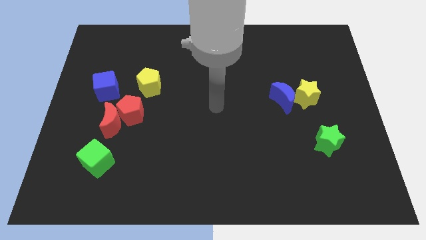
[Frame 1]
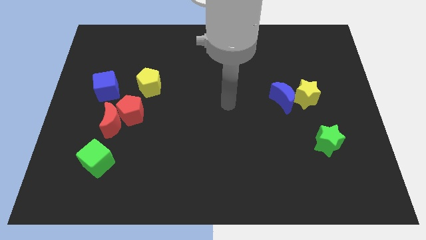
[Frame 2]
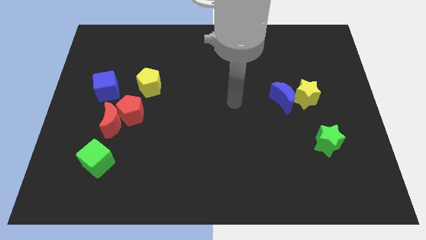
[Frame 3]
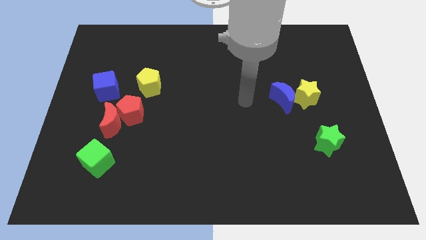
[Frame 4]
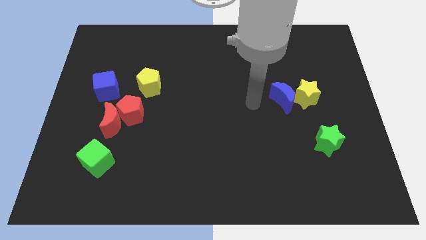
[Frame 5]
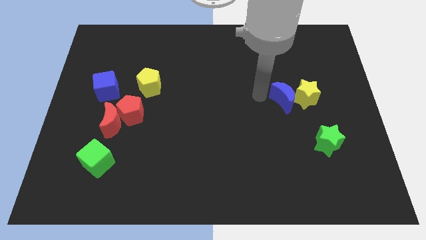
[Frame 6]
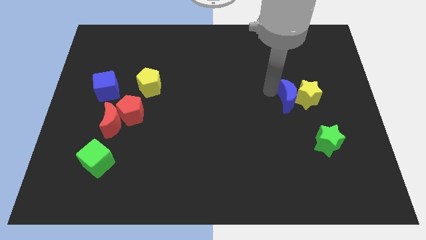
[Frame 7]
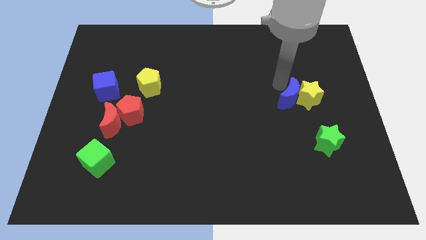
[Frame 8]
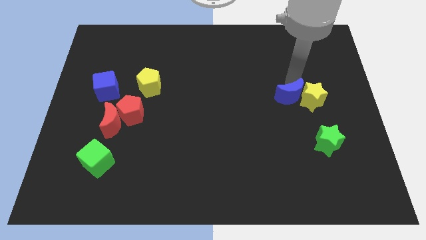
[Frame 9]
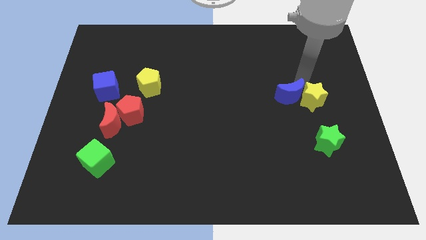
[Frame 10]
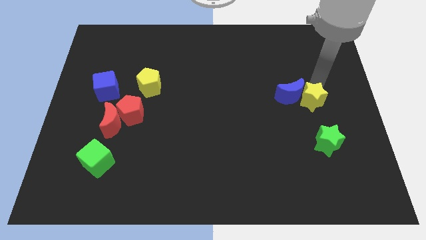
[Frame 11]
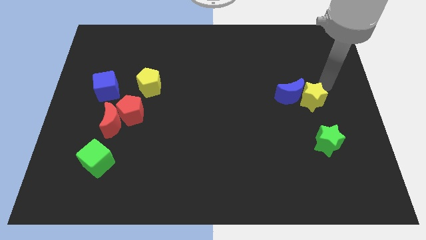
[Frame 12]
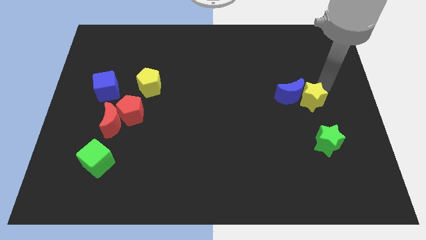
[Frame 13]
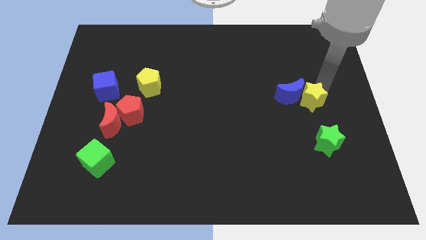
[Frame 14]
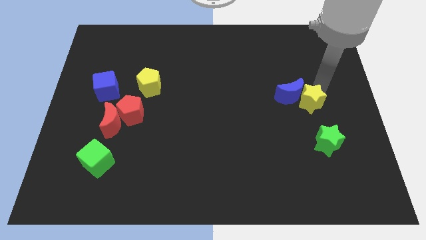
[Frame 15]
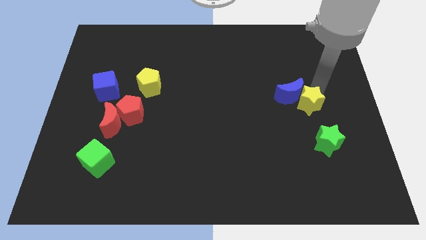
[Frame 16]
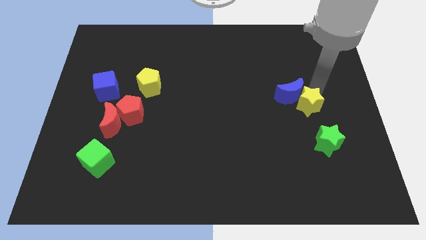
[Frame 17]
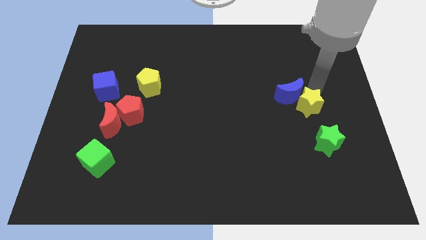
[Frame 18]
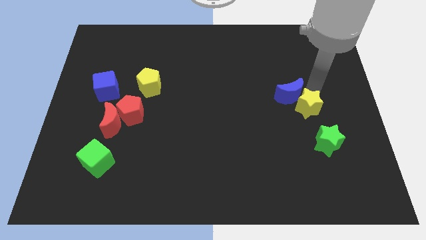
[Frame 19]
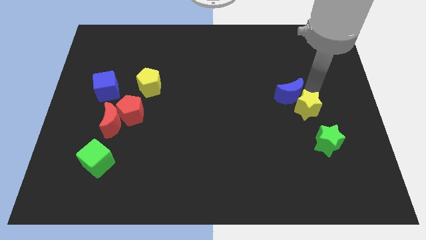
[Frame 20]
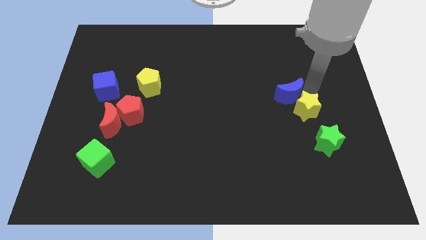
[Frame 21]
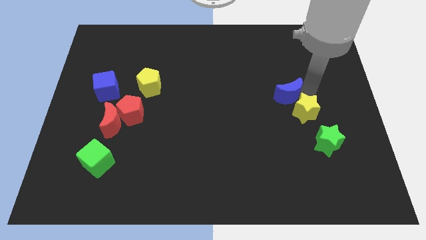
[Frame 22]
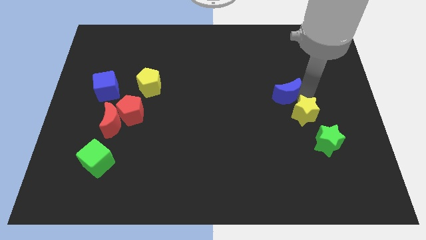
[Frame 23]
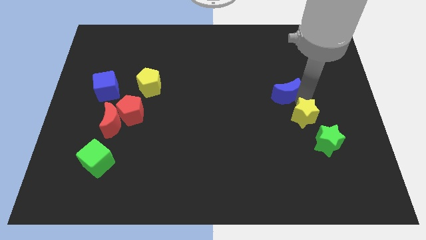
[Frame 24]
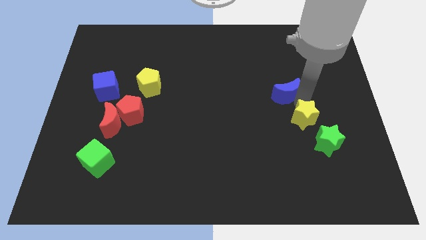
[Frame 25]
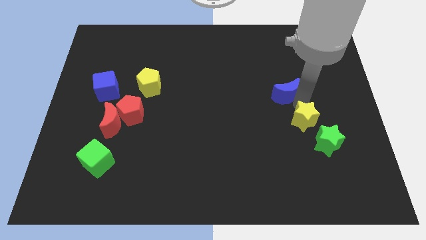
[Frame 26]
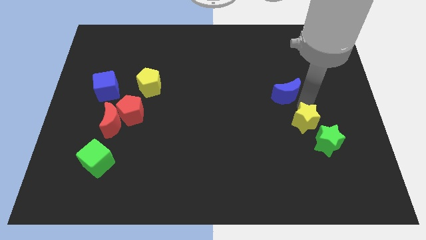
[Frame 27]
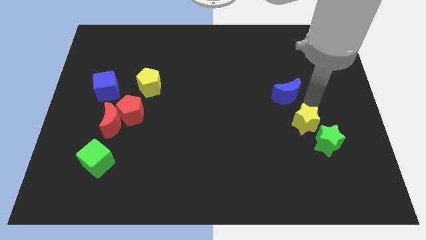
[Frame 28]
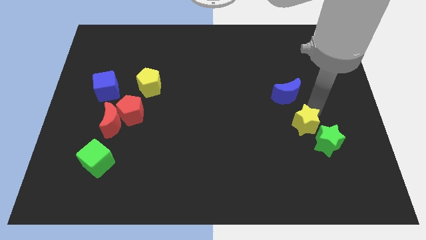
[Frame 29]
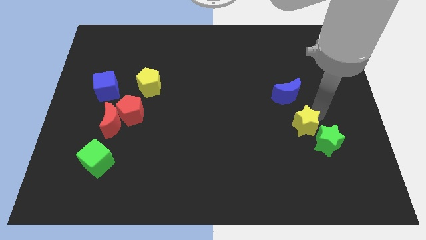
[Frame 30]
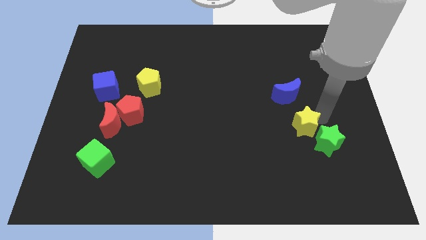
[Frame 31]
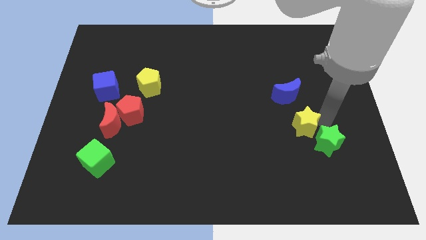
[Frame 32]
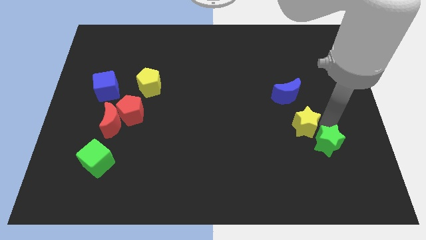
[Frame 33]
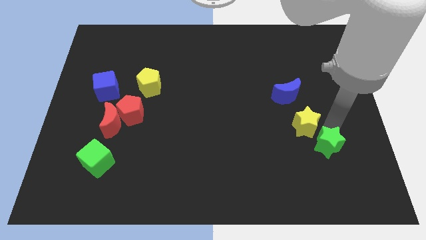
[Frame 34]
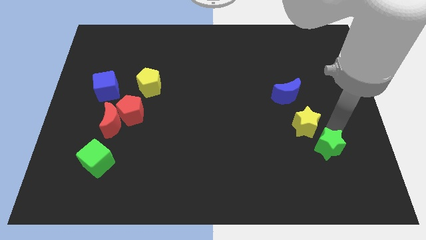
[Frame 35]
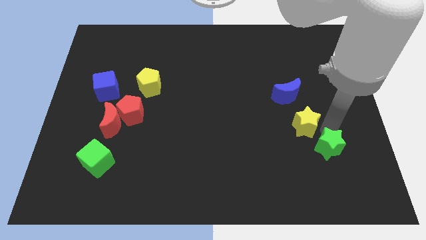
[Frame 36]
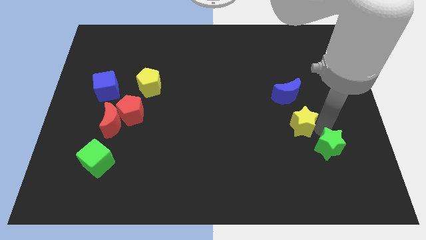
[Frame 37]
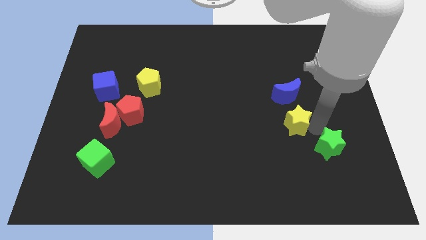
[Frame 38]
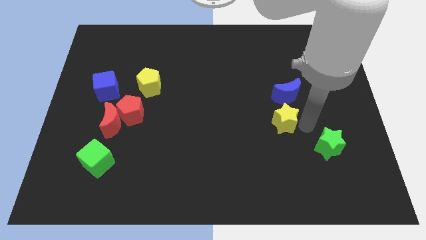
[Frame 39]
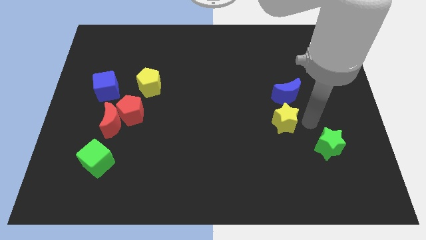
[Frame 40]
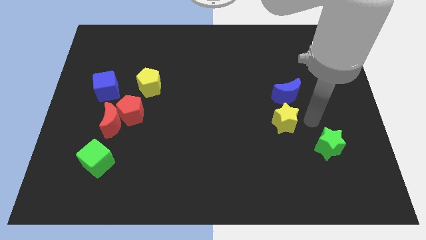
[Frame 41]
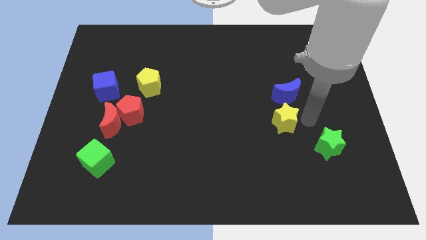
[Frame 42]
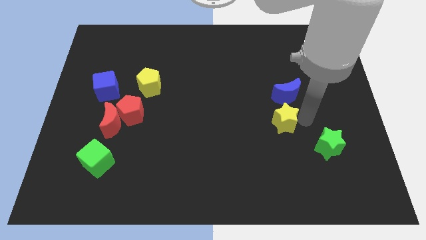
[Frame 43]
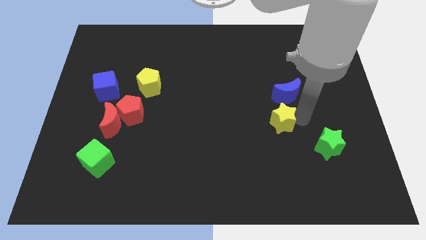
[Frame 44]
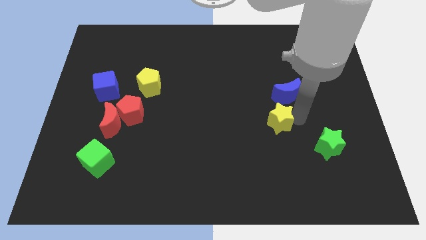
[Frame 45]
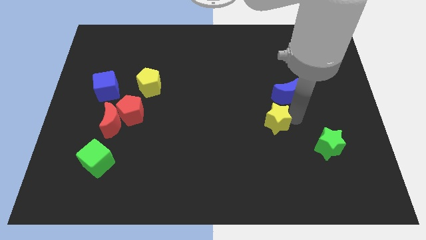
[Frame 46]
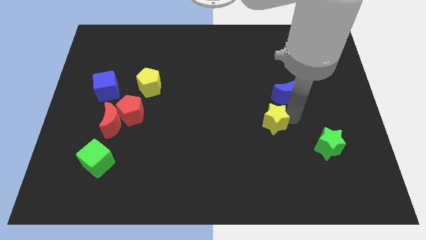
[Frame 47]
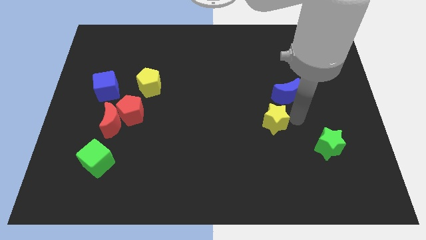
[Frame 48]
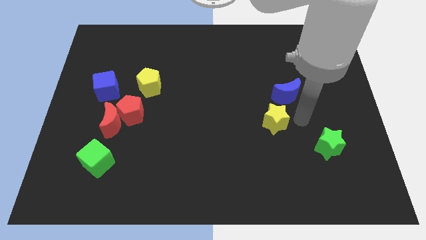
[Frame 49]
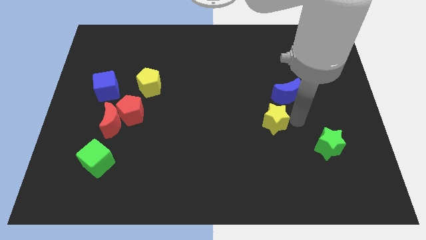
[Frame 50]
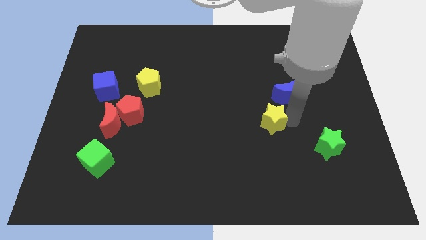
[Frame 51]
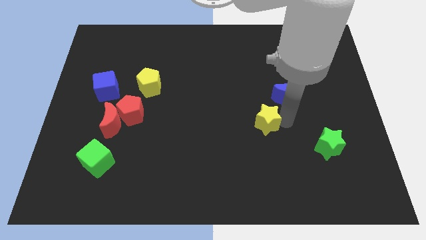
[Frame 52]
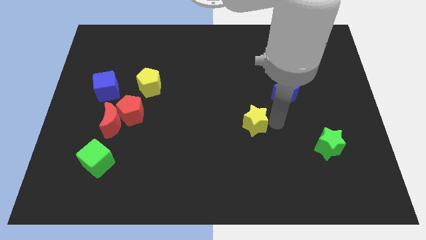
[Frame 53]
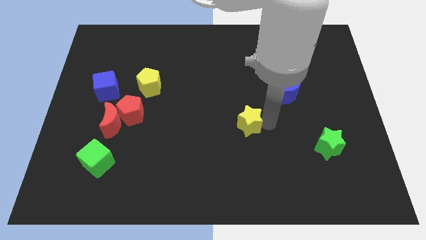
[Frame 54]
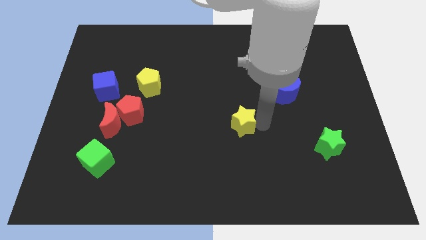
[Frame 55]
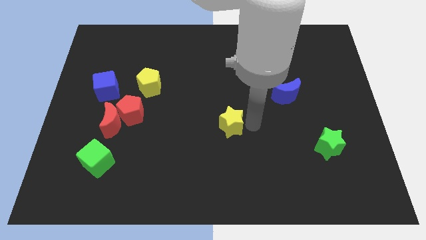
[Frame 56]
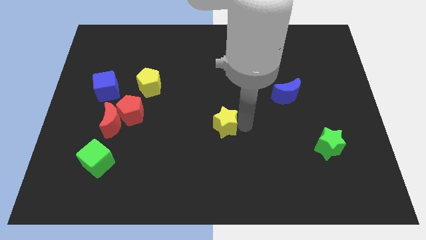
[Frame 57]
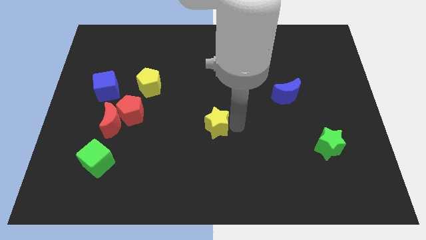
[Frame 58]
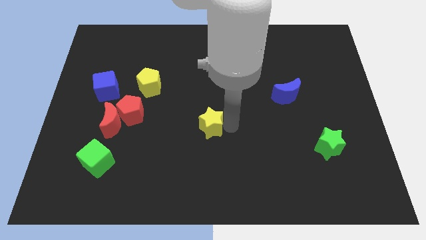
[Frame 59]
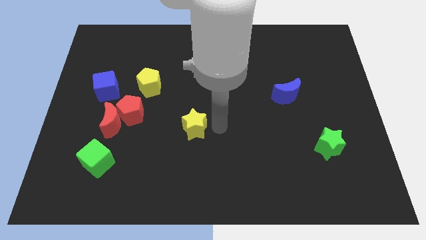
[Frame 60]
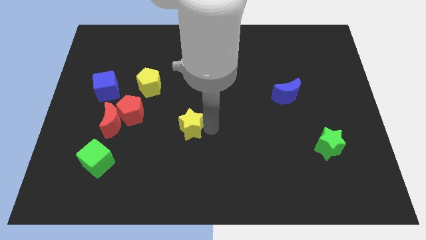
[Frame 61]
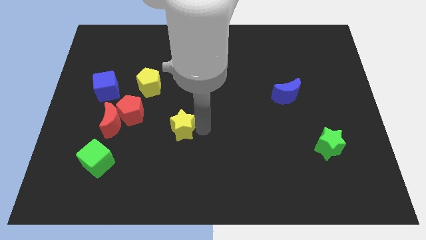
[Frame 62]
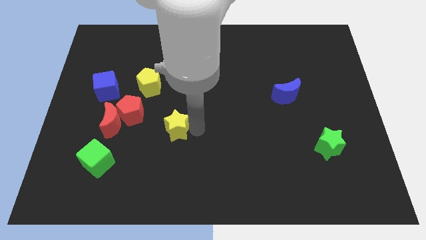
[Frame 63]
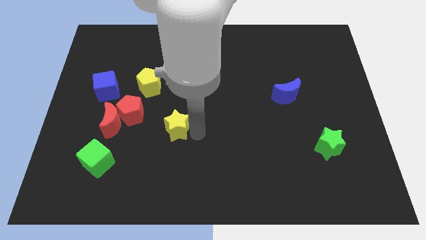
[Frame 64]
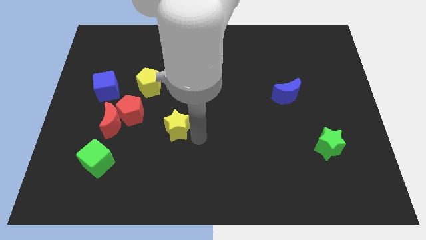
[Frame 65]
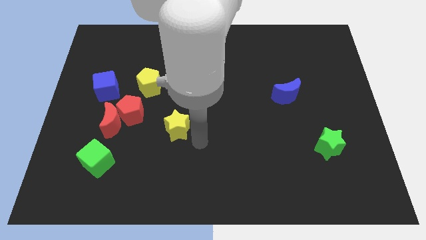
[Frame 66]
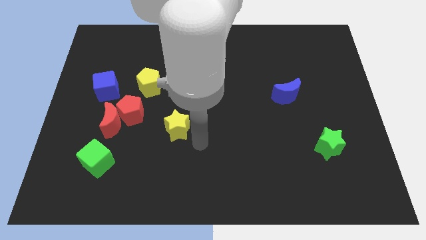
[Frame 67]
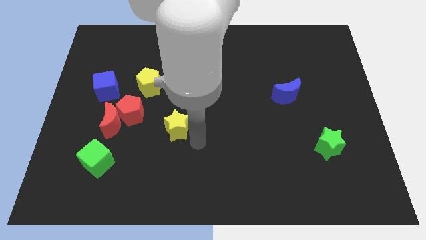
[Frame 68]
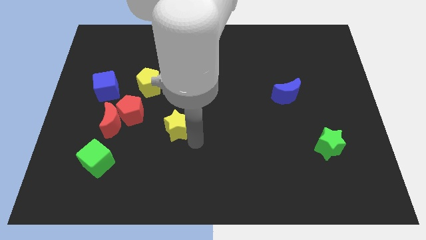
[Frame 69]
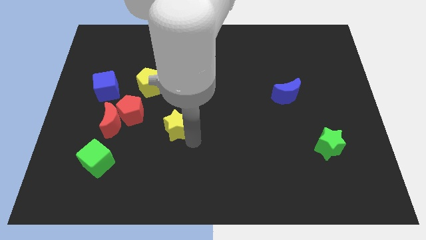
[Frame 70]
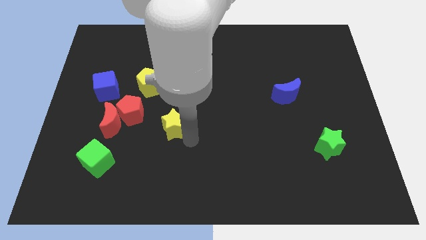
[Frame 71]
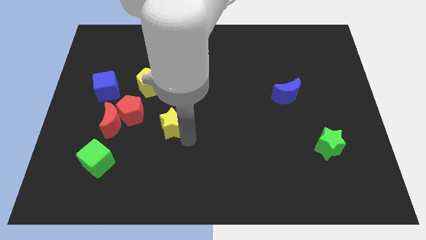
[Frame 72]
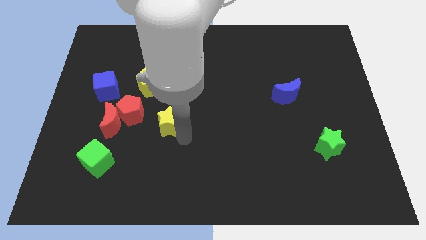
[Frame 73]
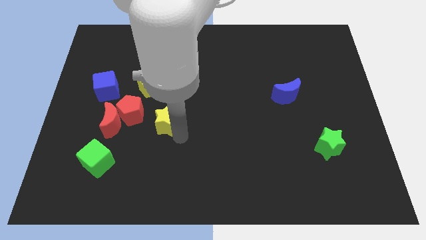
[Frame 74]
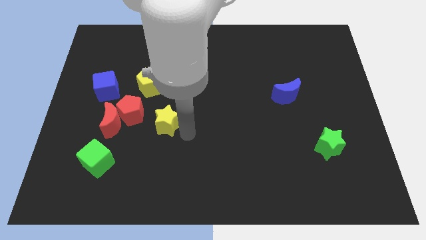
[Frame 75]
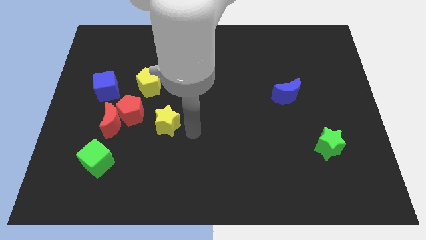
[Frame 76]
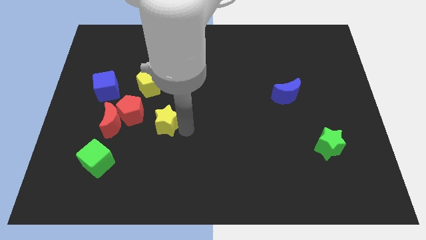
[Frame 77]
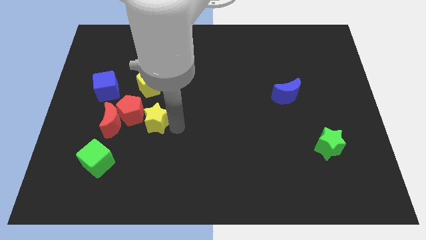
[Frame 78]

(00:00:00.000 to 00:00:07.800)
push the yellow star to the red pentagon
